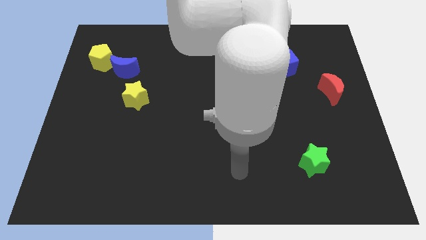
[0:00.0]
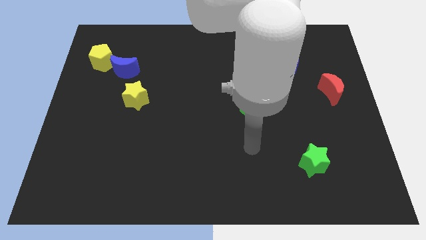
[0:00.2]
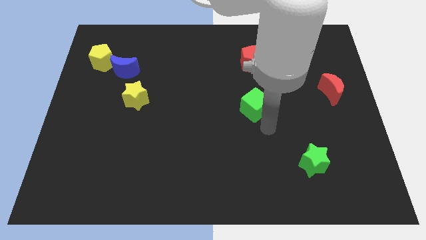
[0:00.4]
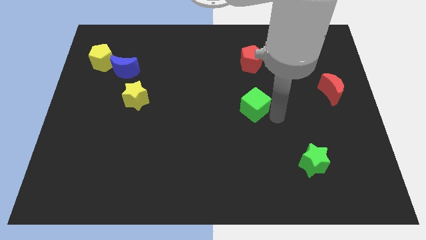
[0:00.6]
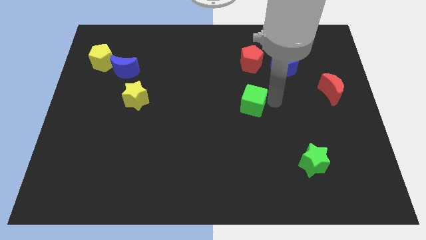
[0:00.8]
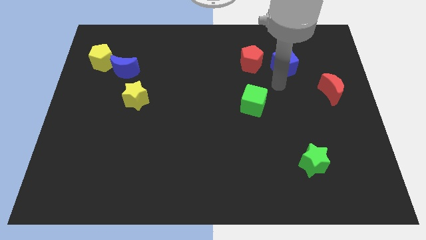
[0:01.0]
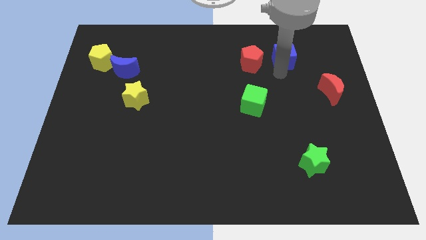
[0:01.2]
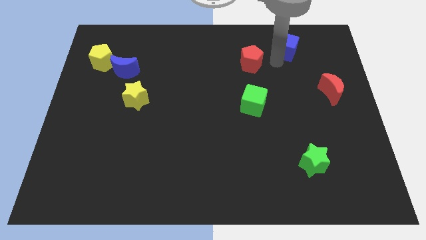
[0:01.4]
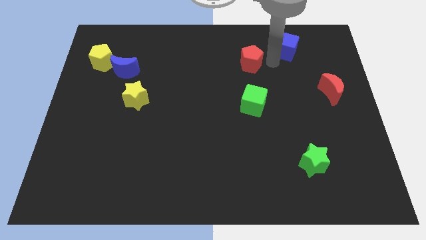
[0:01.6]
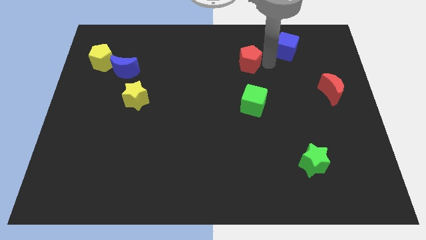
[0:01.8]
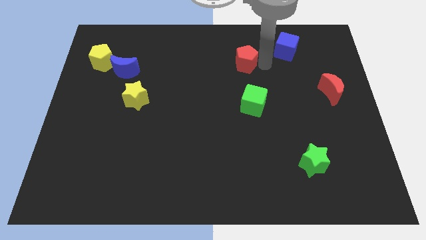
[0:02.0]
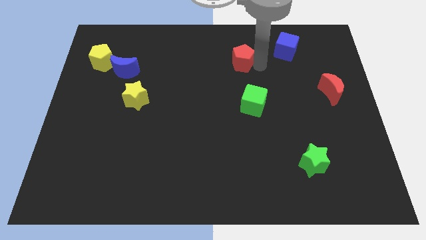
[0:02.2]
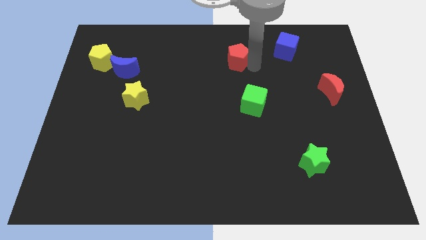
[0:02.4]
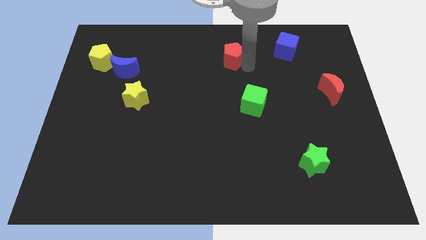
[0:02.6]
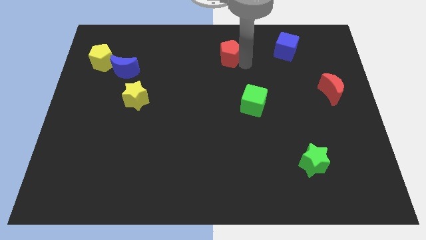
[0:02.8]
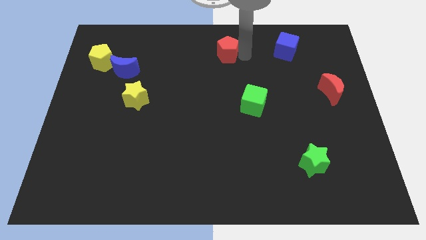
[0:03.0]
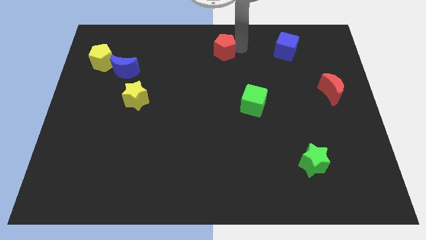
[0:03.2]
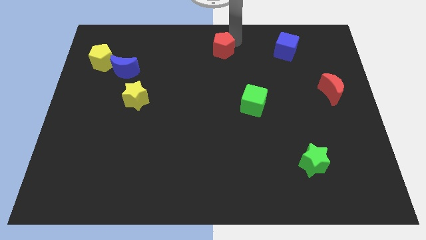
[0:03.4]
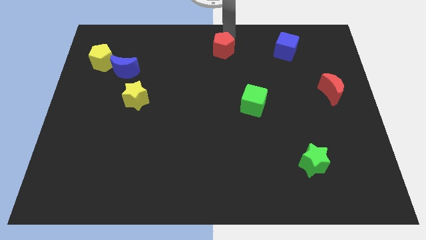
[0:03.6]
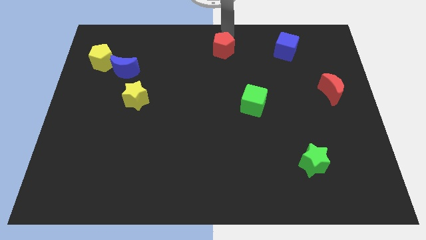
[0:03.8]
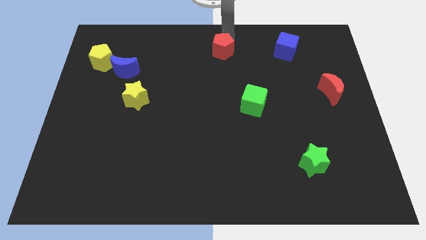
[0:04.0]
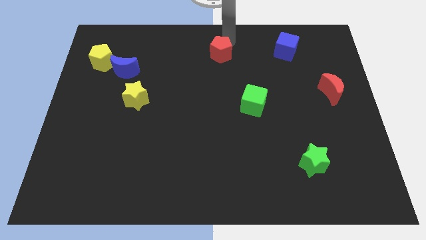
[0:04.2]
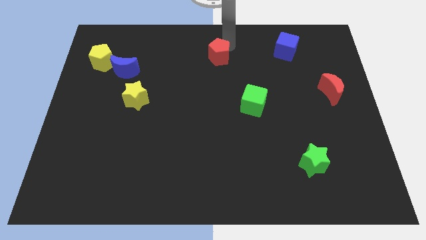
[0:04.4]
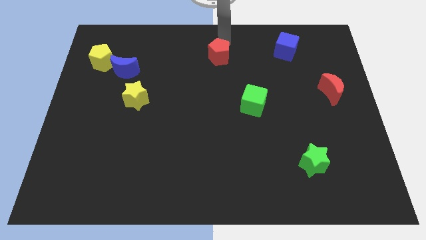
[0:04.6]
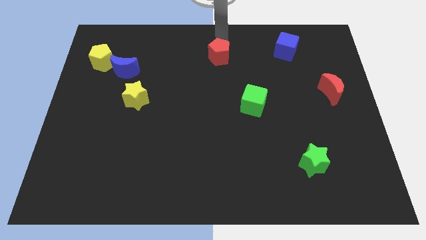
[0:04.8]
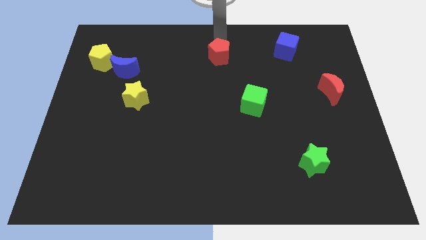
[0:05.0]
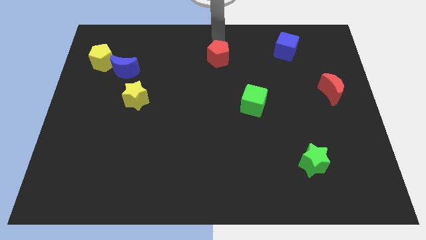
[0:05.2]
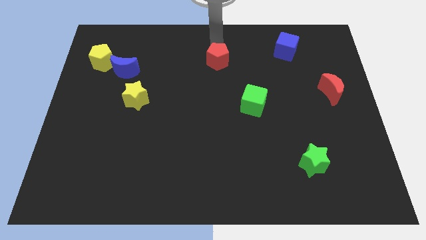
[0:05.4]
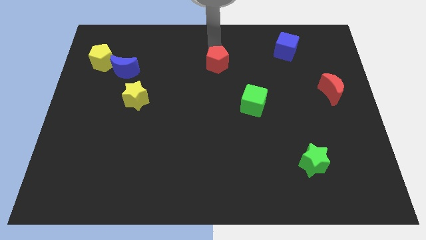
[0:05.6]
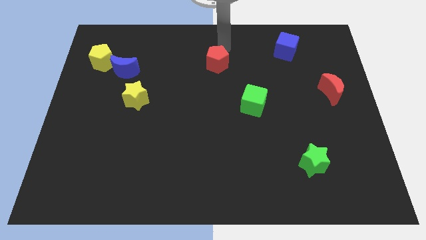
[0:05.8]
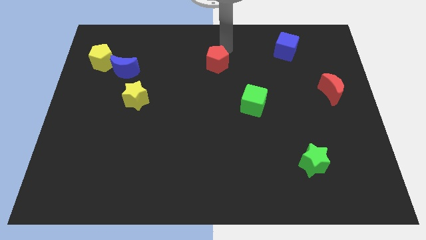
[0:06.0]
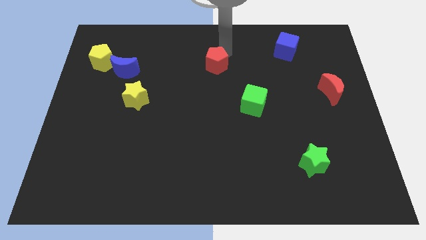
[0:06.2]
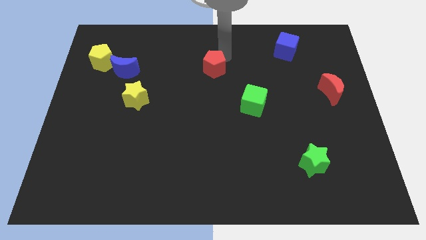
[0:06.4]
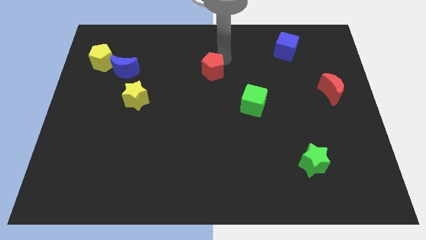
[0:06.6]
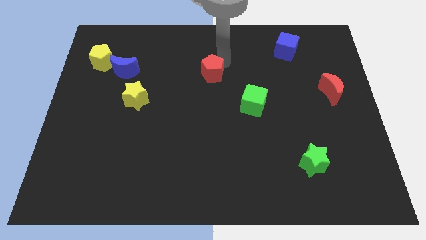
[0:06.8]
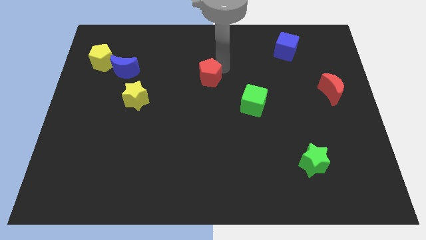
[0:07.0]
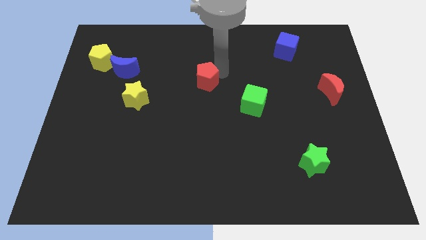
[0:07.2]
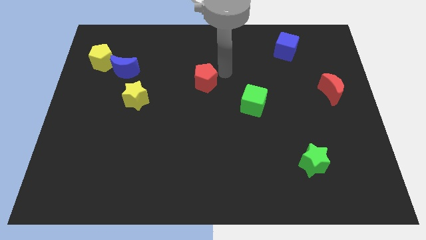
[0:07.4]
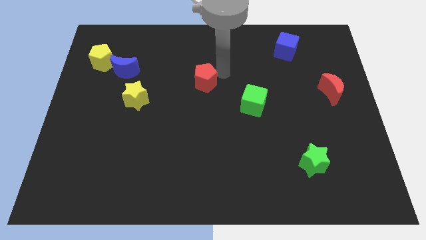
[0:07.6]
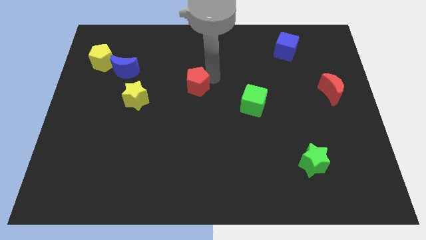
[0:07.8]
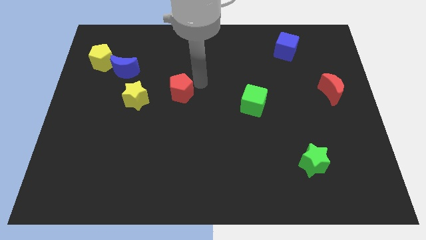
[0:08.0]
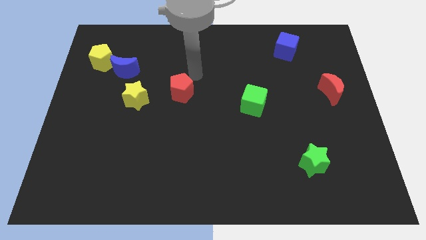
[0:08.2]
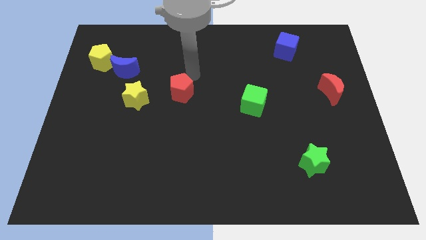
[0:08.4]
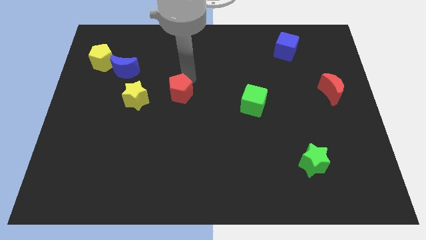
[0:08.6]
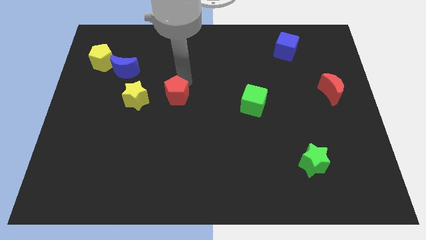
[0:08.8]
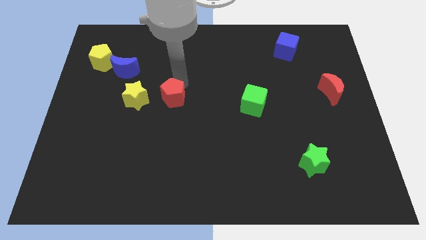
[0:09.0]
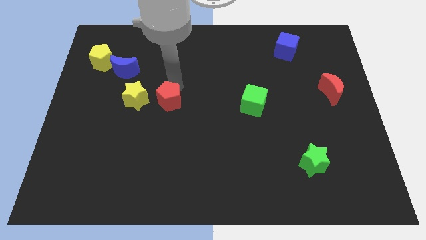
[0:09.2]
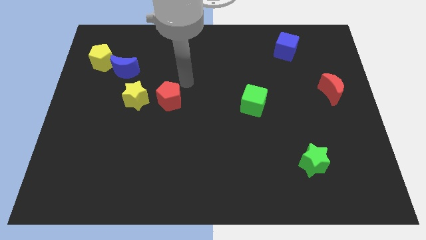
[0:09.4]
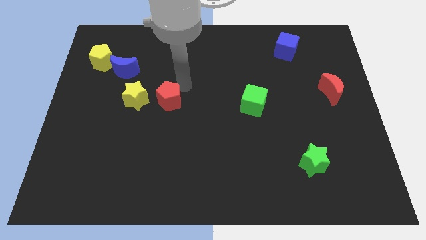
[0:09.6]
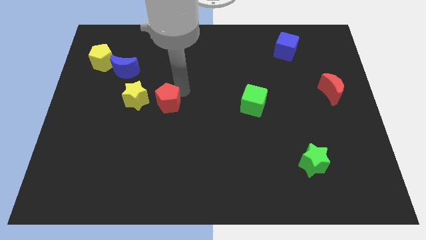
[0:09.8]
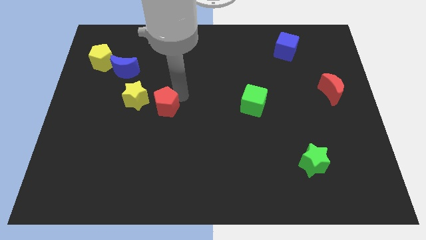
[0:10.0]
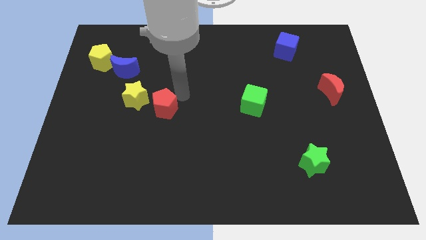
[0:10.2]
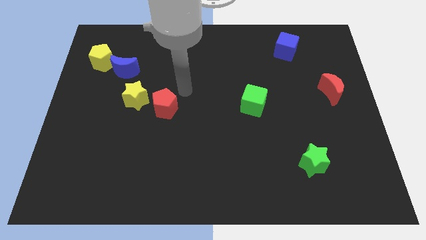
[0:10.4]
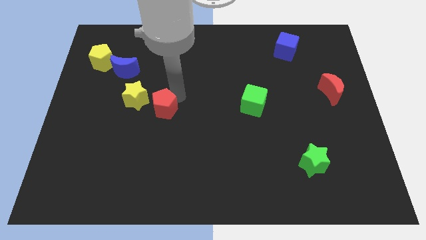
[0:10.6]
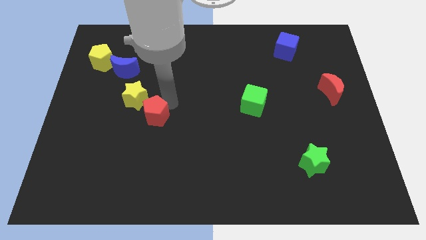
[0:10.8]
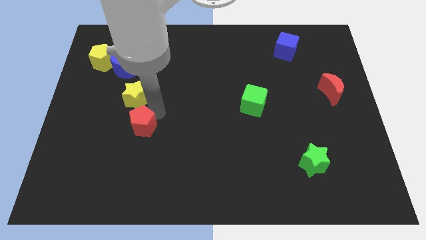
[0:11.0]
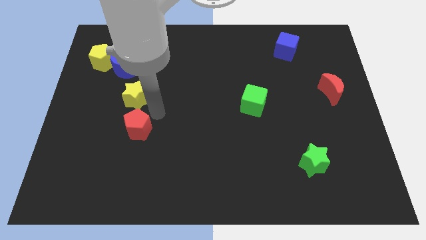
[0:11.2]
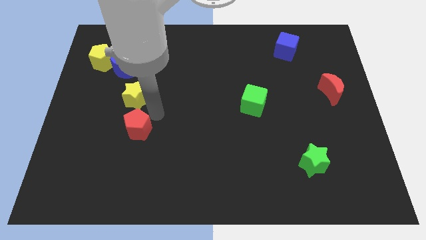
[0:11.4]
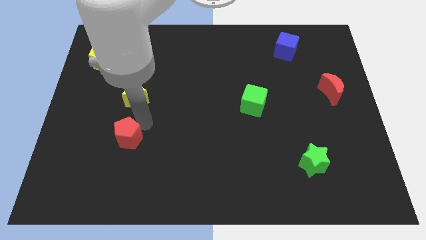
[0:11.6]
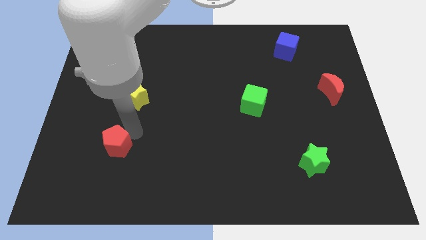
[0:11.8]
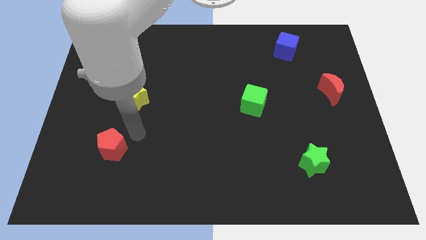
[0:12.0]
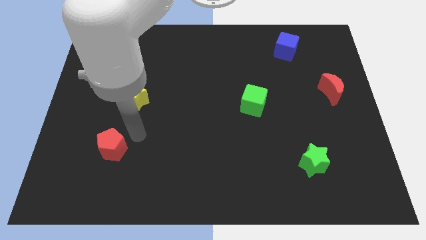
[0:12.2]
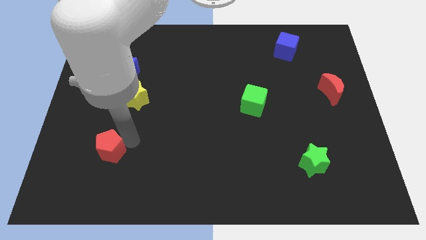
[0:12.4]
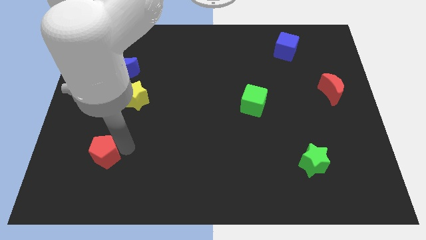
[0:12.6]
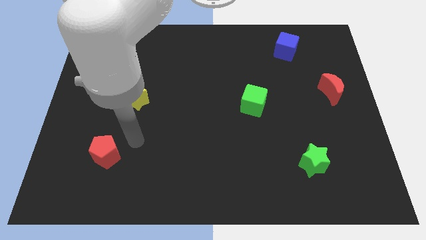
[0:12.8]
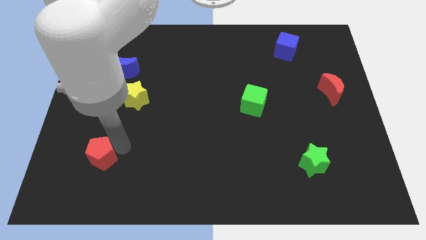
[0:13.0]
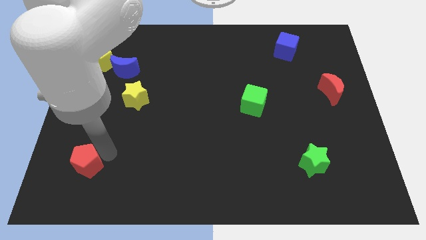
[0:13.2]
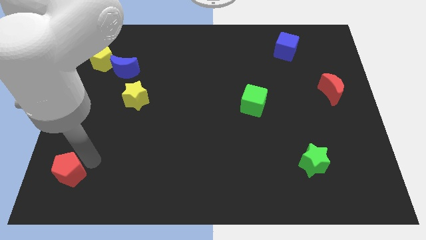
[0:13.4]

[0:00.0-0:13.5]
put the red pentagon to the bottom left corner
